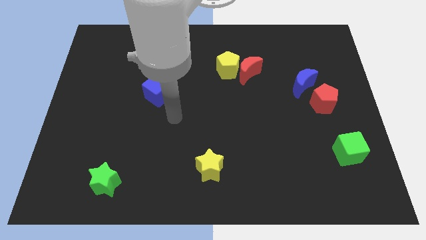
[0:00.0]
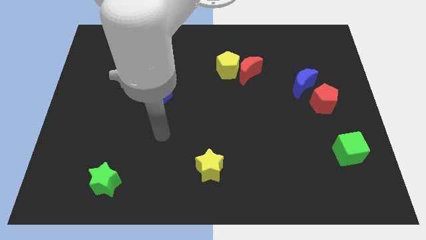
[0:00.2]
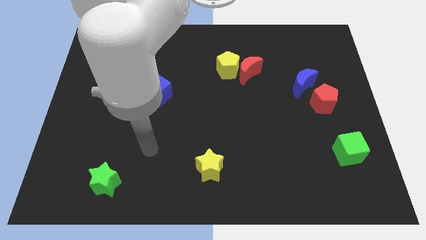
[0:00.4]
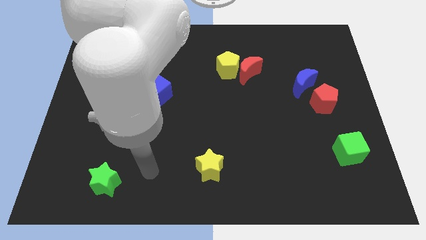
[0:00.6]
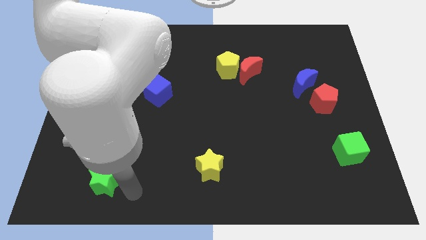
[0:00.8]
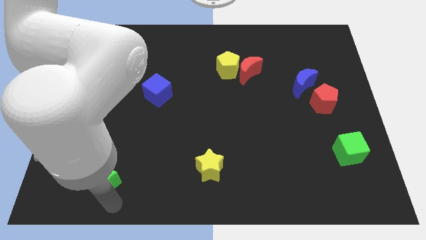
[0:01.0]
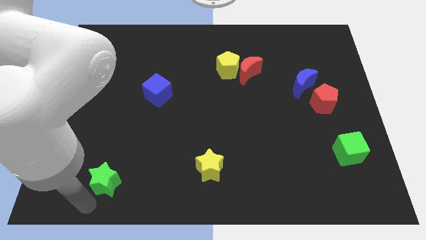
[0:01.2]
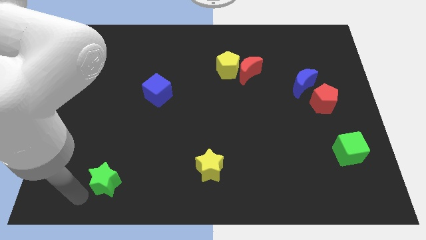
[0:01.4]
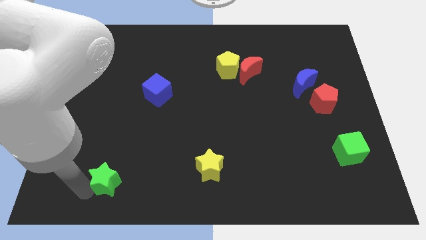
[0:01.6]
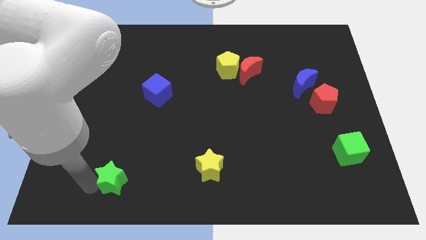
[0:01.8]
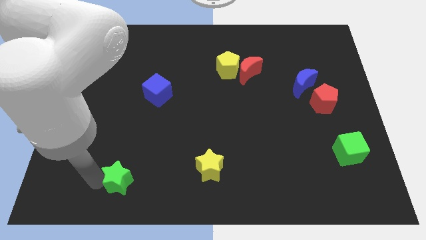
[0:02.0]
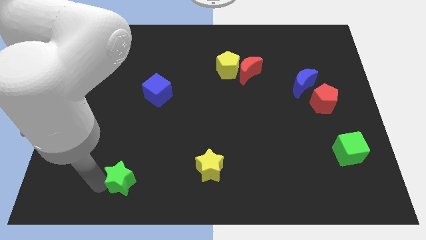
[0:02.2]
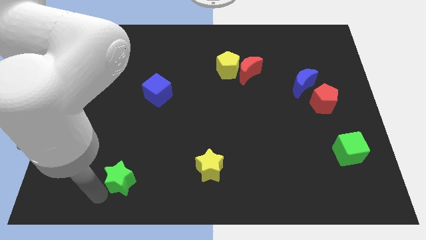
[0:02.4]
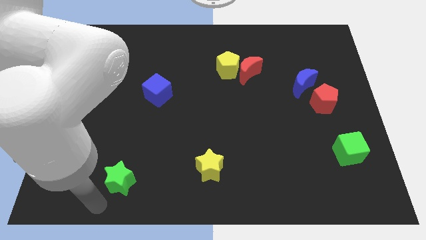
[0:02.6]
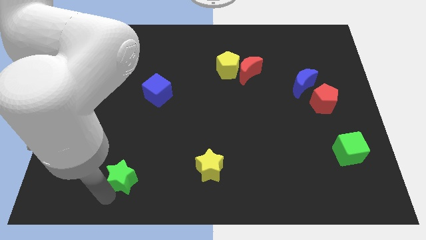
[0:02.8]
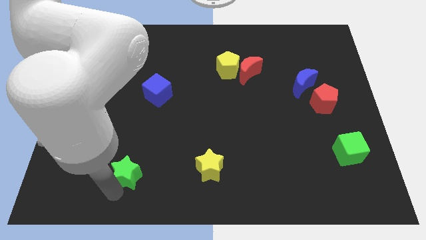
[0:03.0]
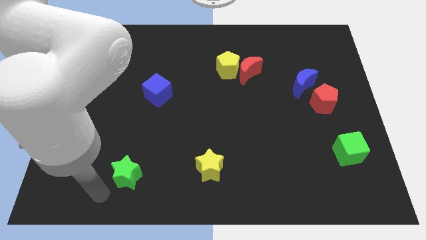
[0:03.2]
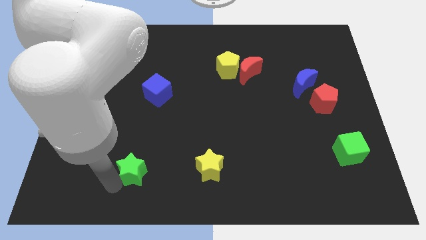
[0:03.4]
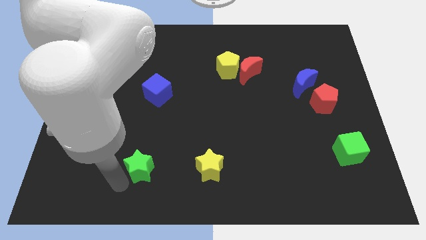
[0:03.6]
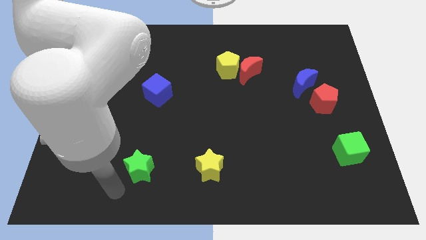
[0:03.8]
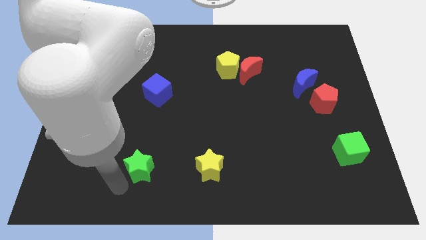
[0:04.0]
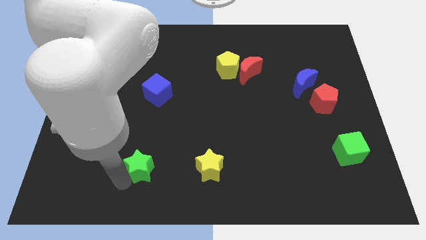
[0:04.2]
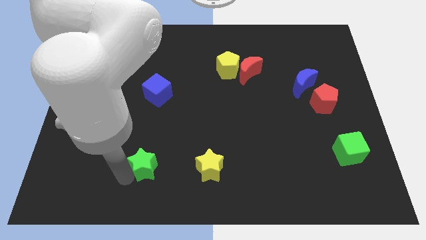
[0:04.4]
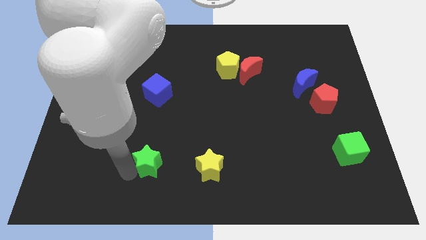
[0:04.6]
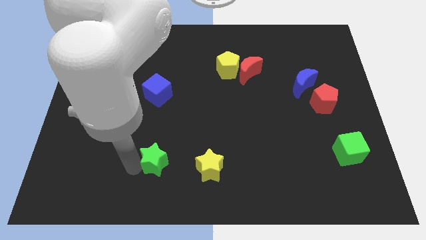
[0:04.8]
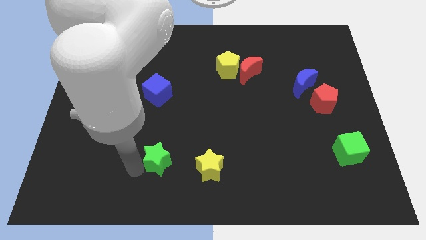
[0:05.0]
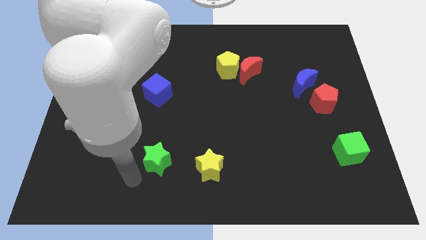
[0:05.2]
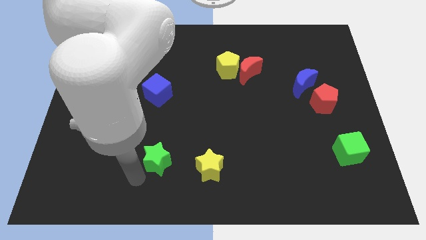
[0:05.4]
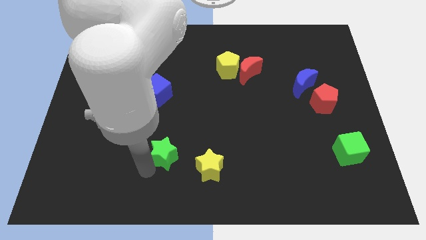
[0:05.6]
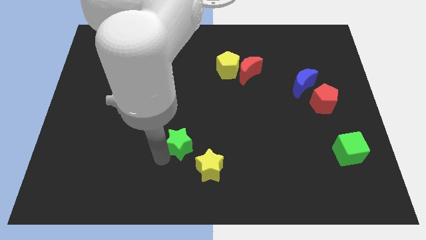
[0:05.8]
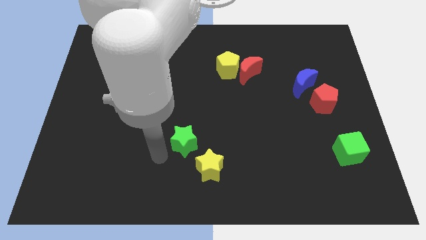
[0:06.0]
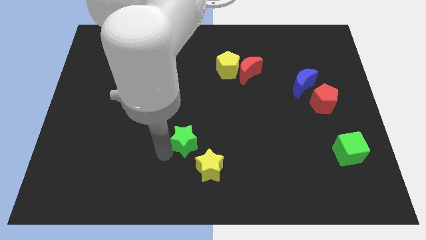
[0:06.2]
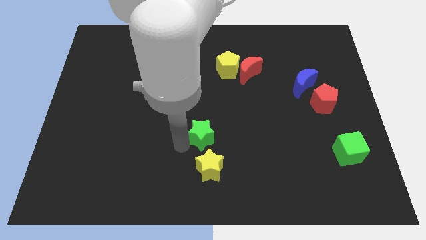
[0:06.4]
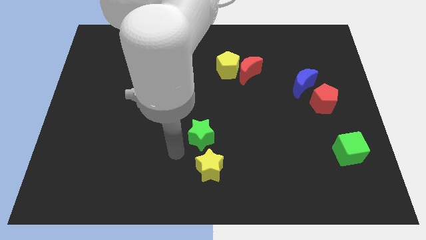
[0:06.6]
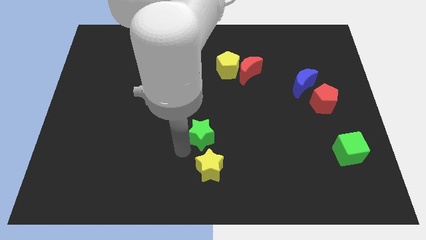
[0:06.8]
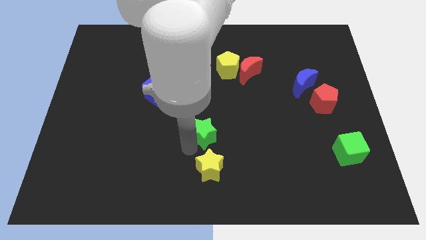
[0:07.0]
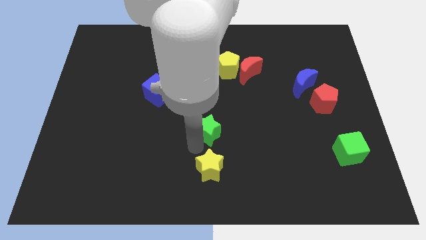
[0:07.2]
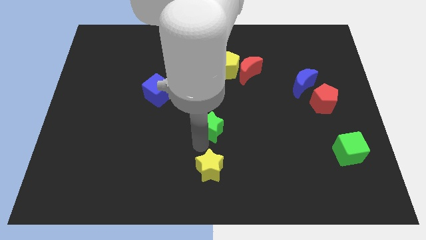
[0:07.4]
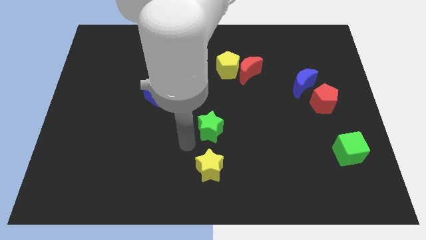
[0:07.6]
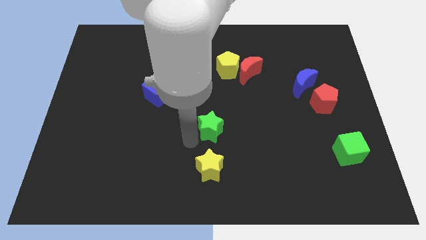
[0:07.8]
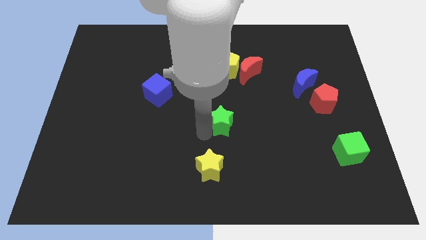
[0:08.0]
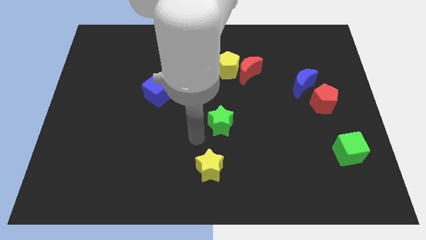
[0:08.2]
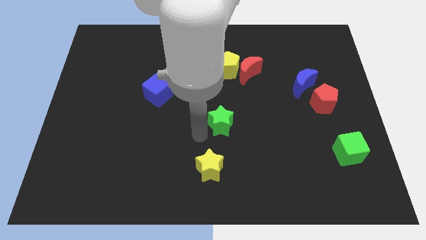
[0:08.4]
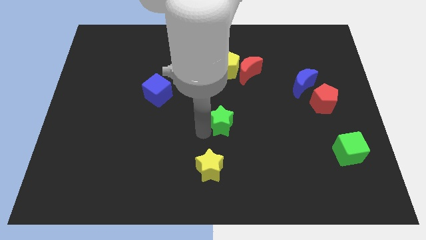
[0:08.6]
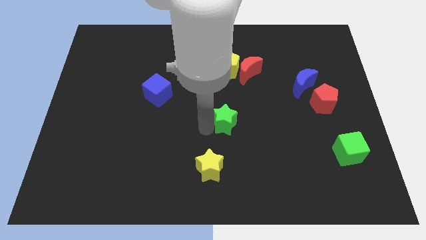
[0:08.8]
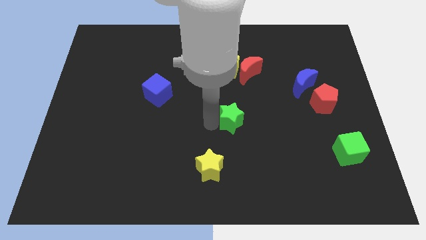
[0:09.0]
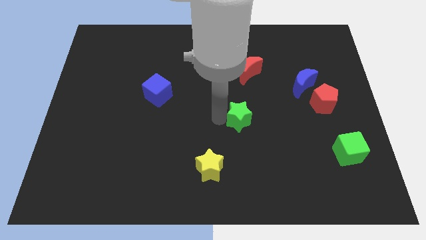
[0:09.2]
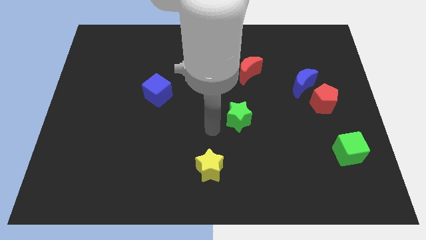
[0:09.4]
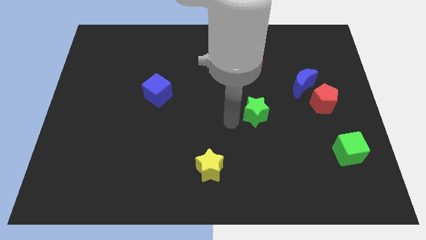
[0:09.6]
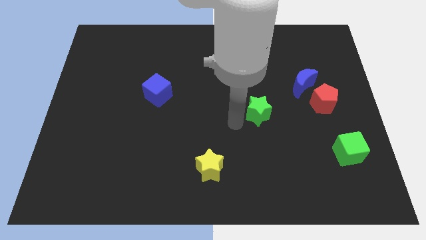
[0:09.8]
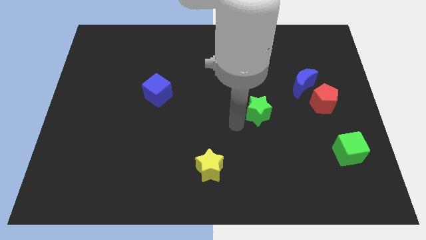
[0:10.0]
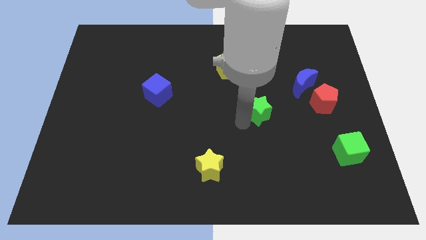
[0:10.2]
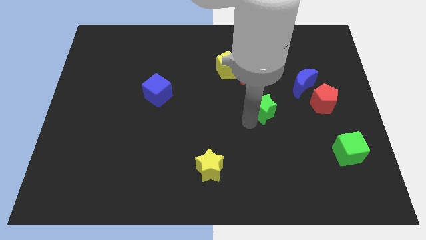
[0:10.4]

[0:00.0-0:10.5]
push the green star to the left of the red pentagon

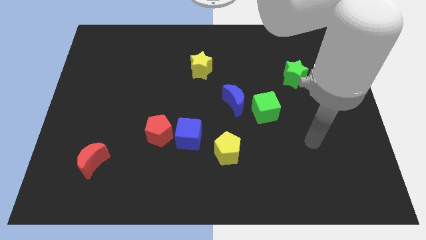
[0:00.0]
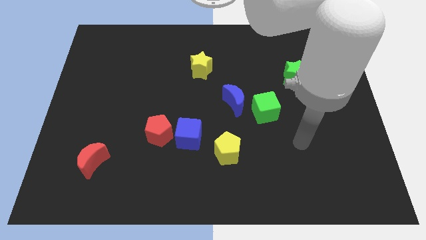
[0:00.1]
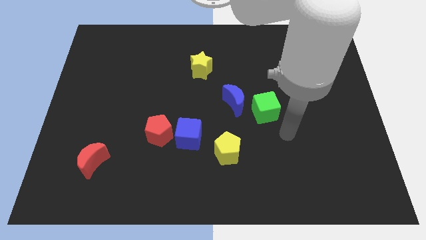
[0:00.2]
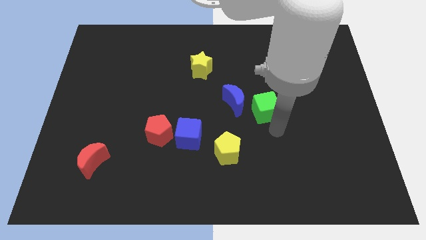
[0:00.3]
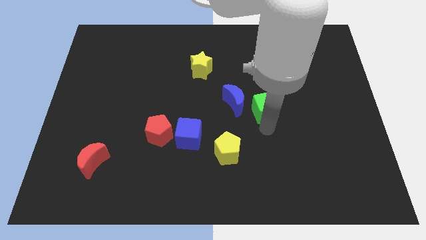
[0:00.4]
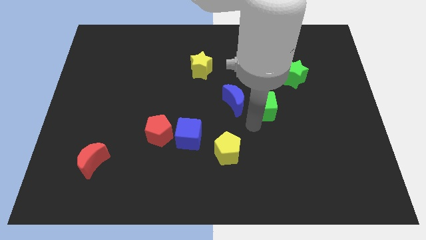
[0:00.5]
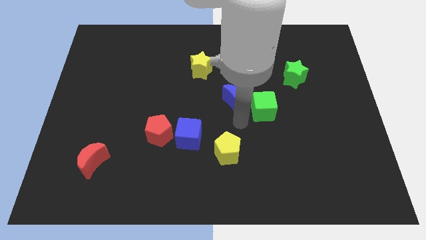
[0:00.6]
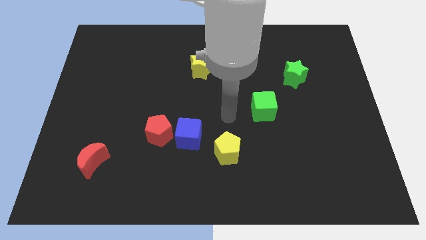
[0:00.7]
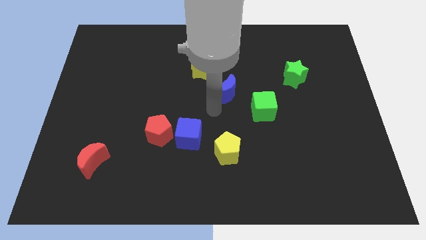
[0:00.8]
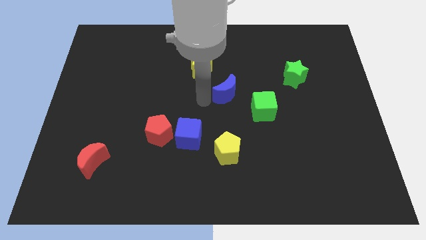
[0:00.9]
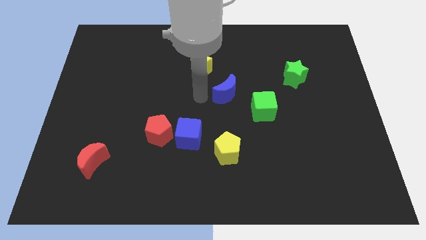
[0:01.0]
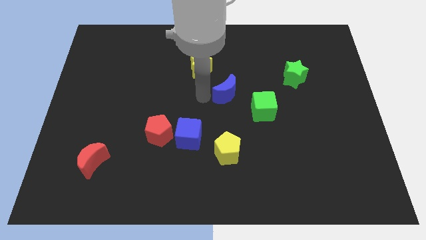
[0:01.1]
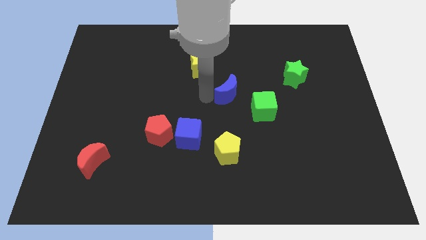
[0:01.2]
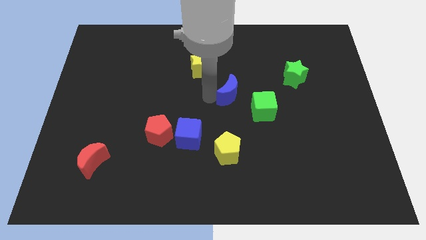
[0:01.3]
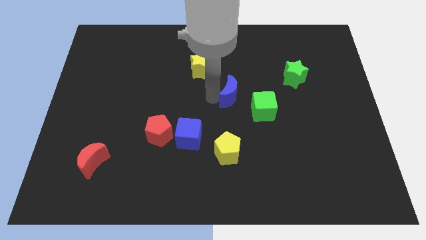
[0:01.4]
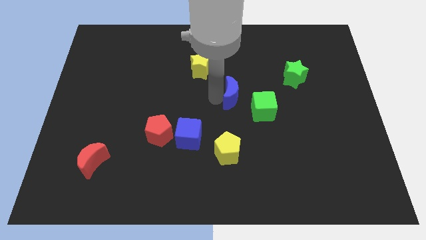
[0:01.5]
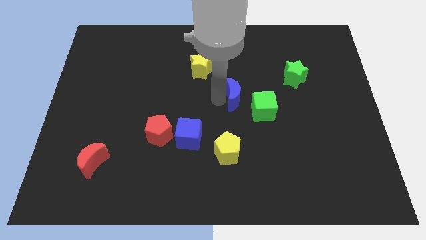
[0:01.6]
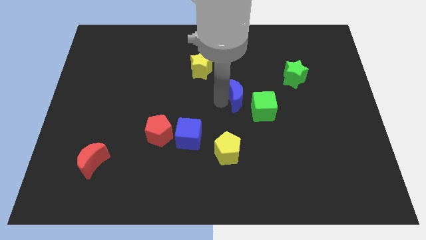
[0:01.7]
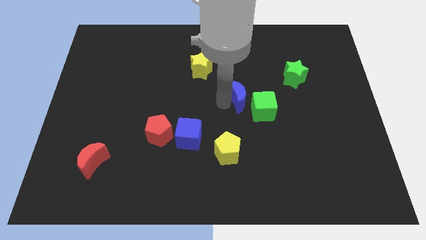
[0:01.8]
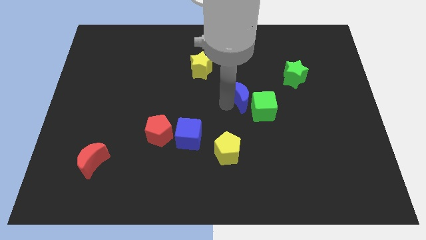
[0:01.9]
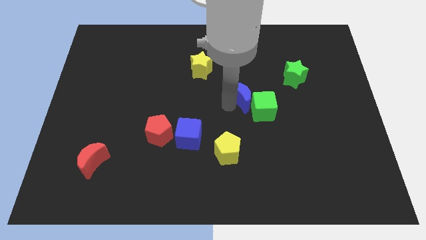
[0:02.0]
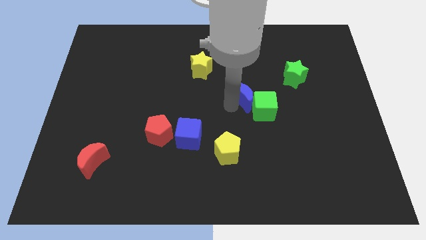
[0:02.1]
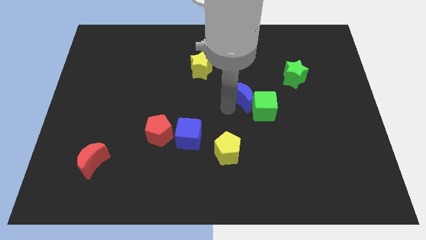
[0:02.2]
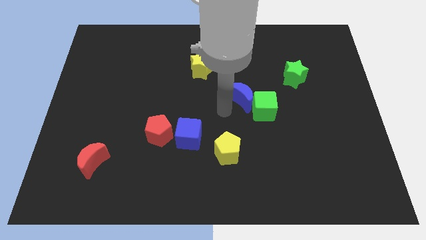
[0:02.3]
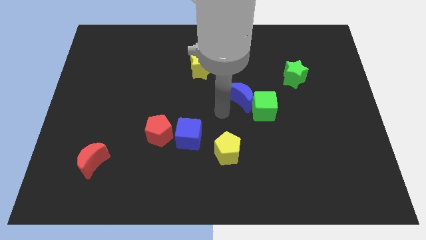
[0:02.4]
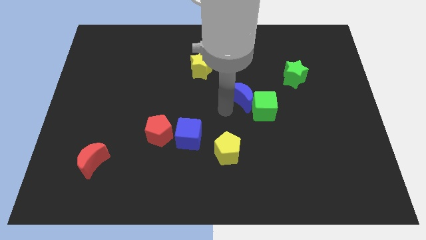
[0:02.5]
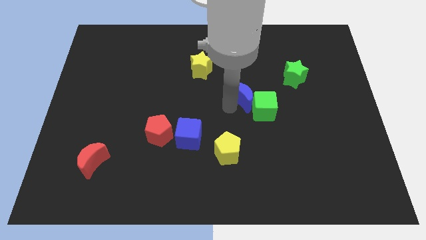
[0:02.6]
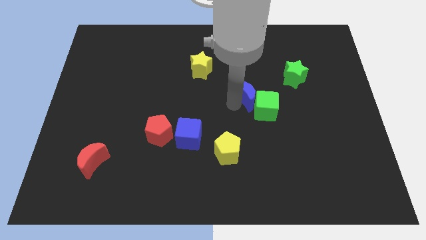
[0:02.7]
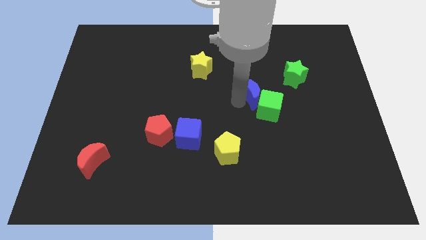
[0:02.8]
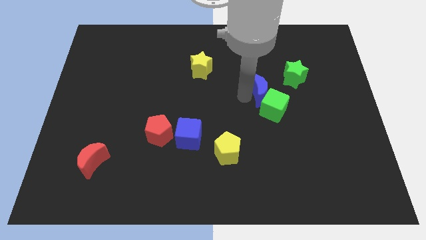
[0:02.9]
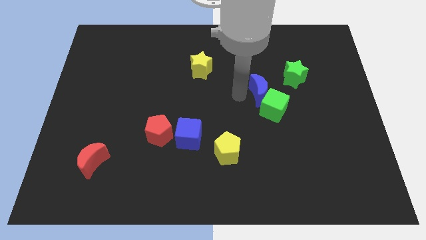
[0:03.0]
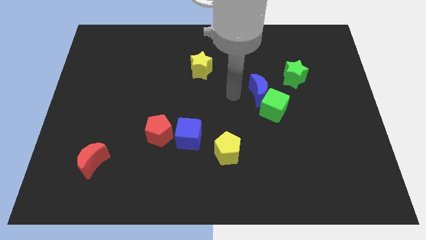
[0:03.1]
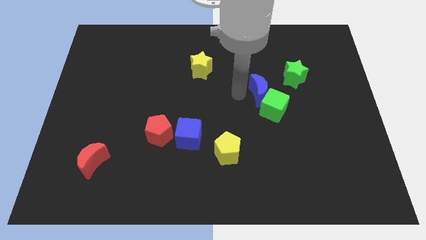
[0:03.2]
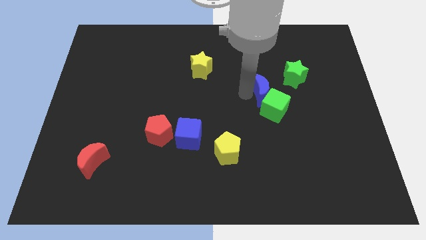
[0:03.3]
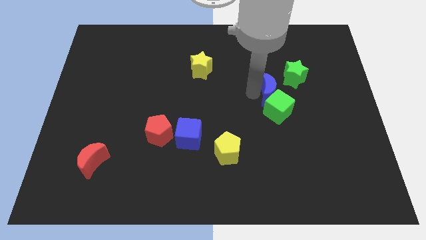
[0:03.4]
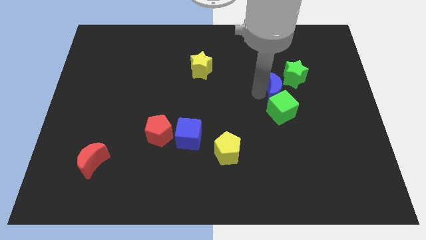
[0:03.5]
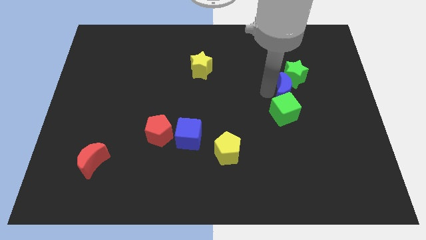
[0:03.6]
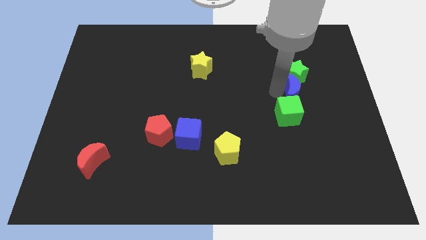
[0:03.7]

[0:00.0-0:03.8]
push the blue moon to the bottom right side of the green star
